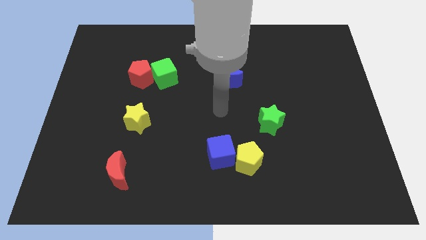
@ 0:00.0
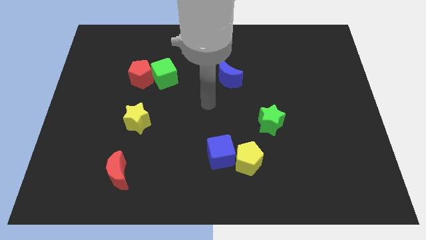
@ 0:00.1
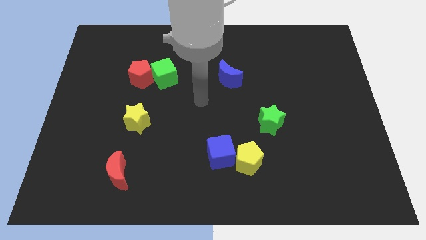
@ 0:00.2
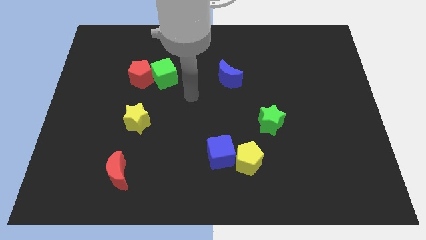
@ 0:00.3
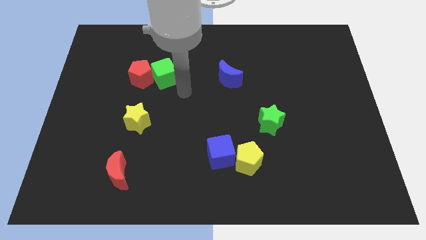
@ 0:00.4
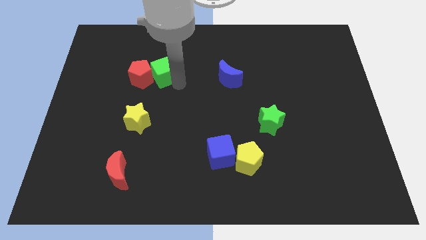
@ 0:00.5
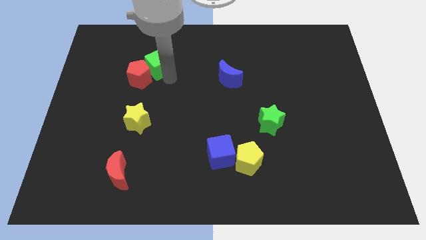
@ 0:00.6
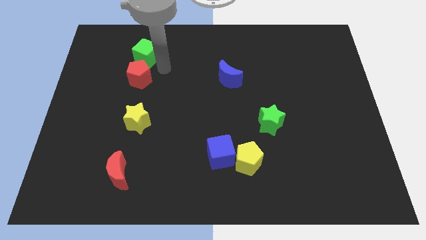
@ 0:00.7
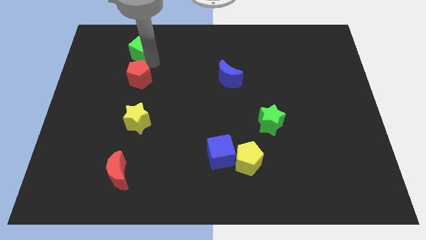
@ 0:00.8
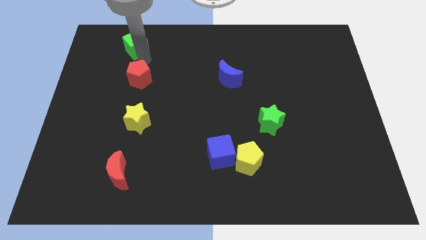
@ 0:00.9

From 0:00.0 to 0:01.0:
pull the red pentagon apart from the green cube

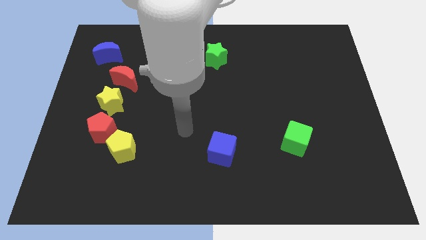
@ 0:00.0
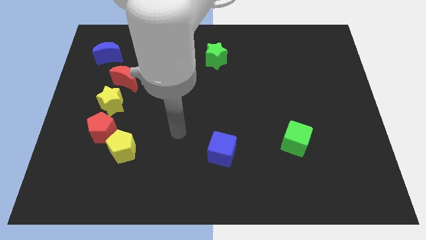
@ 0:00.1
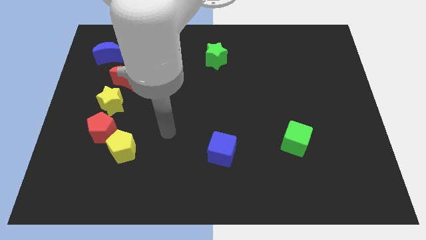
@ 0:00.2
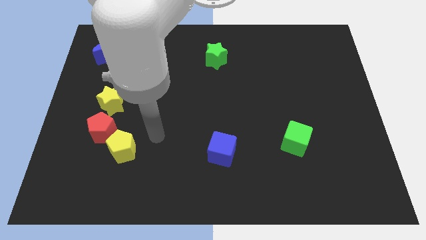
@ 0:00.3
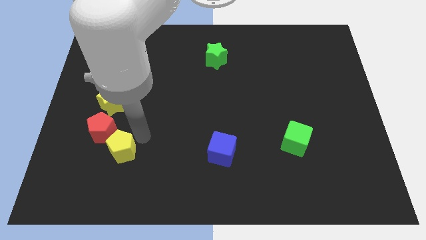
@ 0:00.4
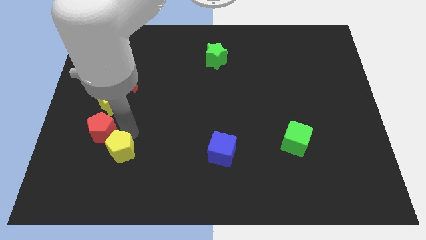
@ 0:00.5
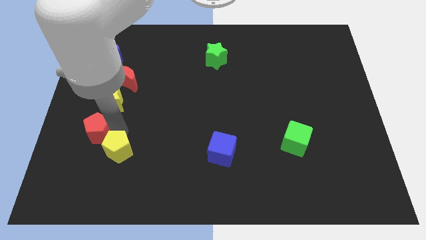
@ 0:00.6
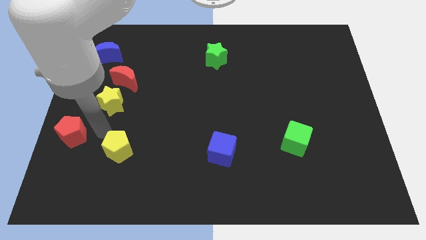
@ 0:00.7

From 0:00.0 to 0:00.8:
pull the yellow pentagon apart from the red pentagon

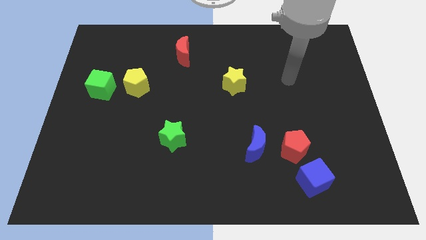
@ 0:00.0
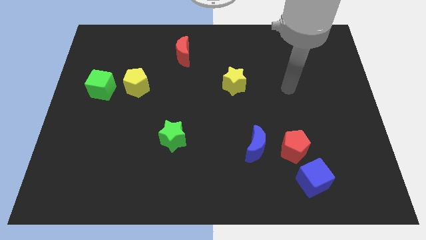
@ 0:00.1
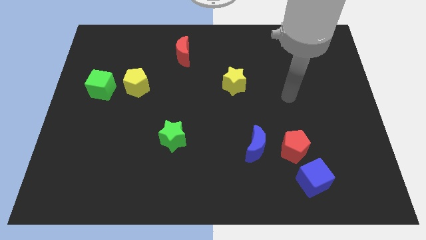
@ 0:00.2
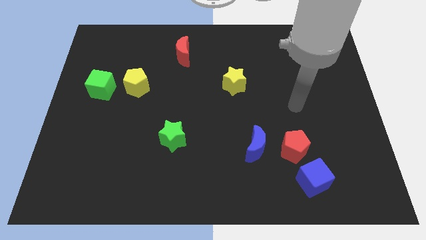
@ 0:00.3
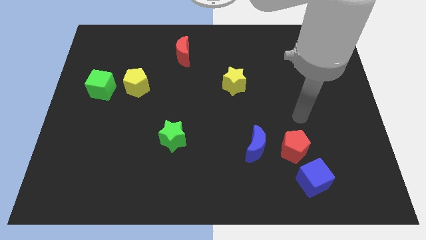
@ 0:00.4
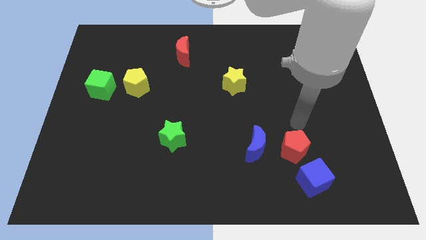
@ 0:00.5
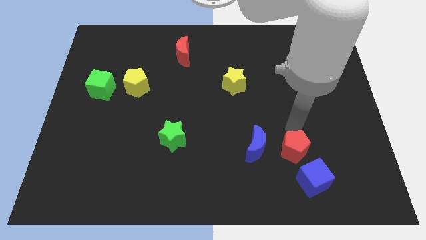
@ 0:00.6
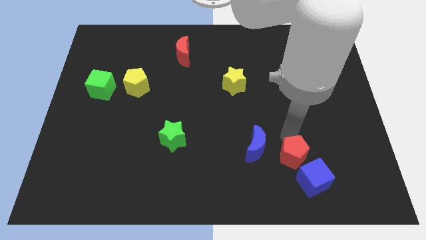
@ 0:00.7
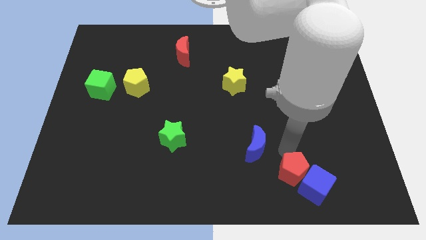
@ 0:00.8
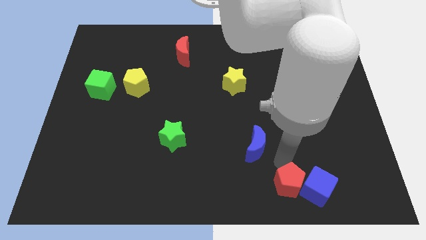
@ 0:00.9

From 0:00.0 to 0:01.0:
separate the blue moon from the red pentagon

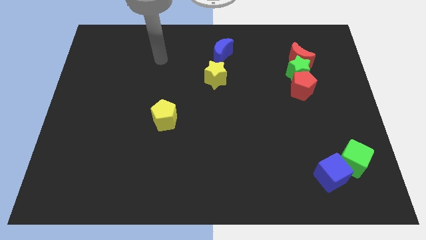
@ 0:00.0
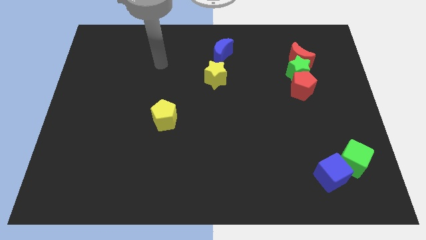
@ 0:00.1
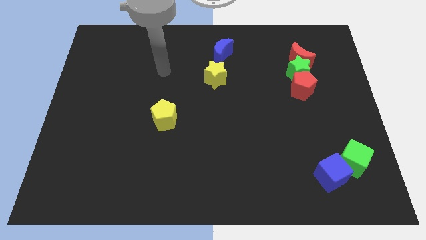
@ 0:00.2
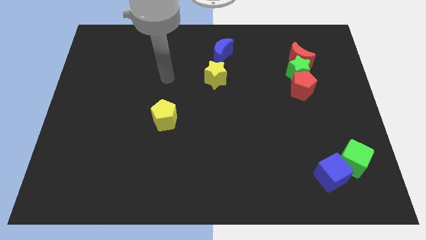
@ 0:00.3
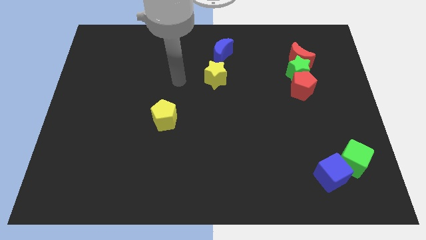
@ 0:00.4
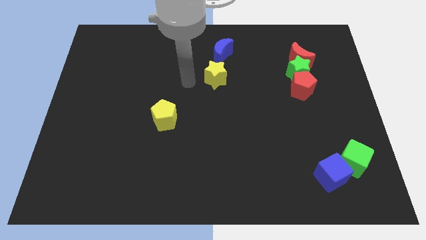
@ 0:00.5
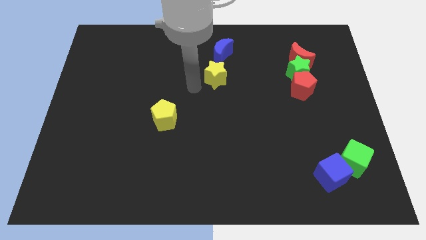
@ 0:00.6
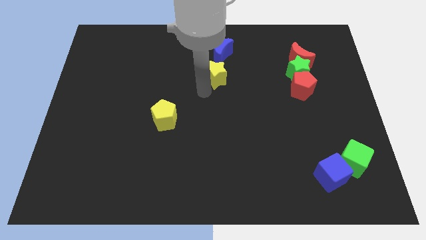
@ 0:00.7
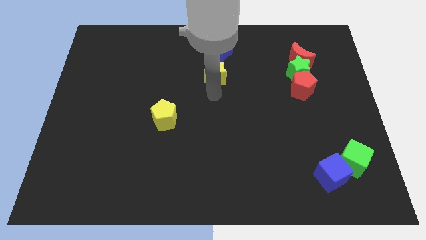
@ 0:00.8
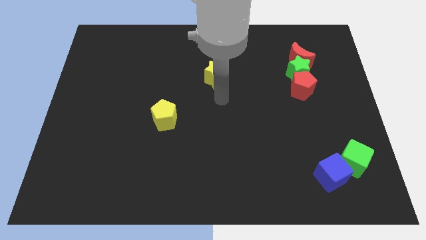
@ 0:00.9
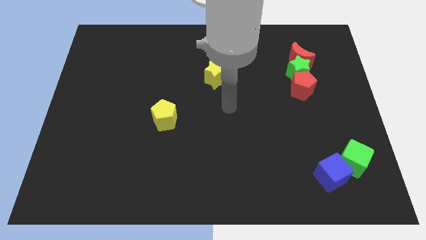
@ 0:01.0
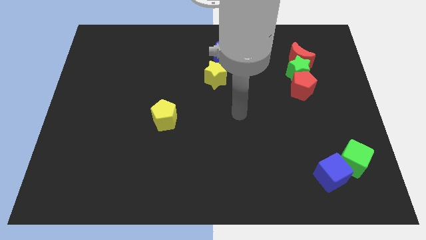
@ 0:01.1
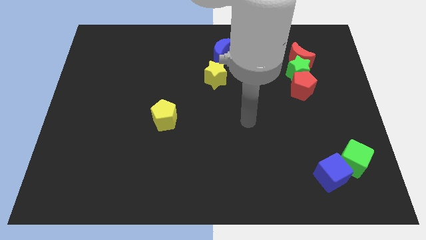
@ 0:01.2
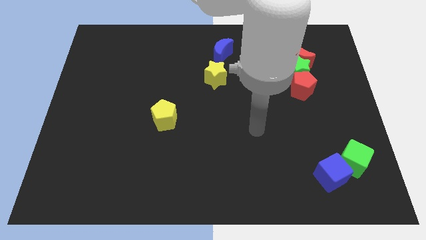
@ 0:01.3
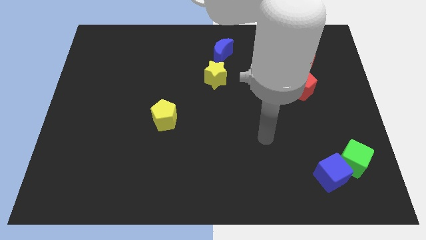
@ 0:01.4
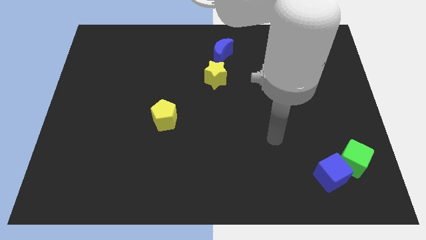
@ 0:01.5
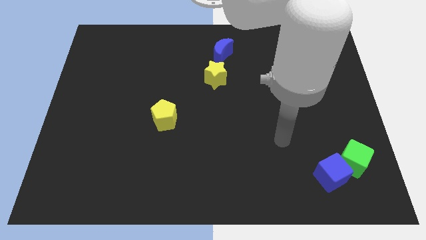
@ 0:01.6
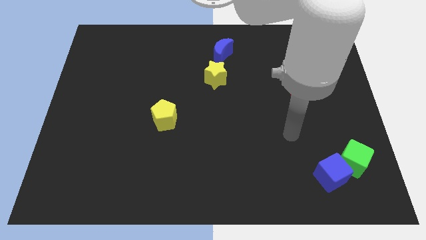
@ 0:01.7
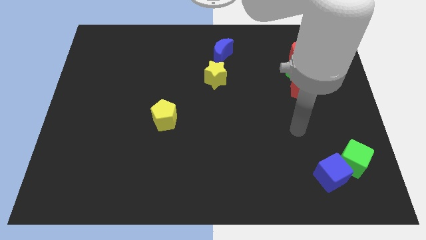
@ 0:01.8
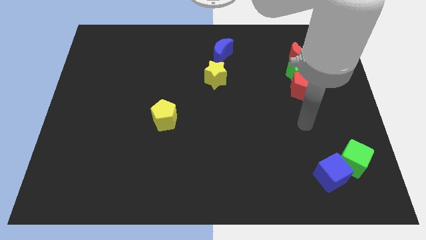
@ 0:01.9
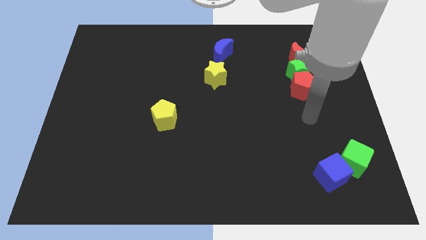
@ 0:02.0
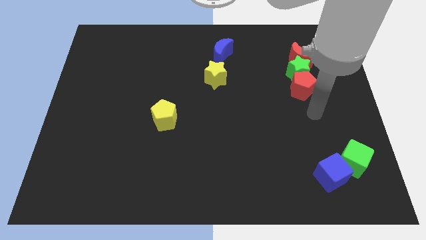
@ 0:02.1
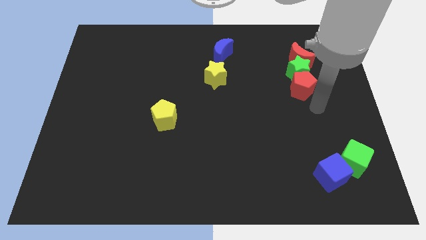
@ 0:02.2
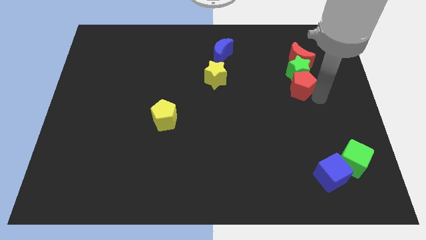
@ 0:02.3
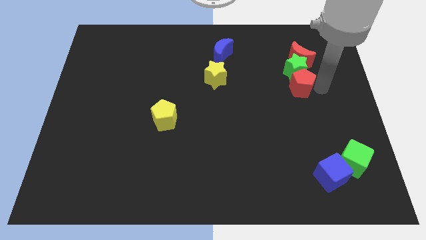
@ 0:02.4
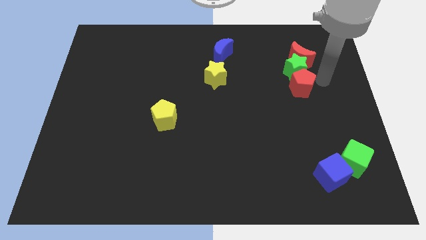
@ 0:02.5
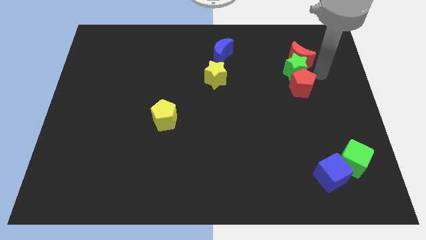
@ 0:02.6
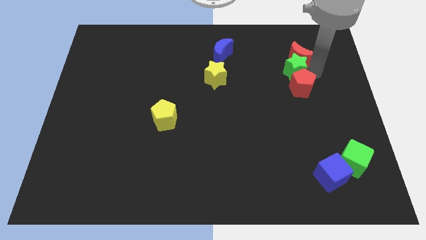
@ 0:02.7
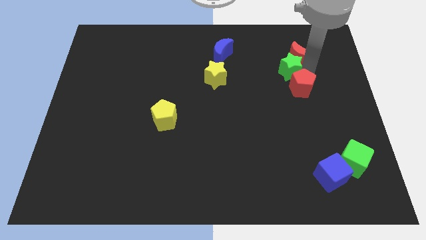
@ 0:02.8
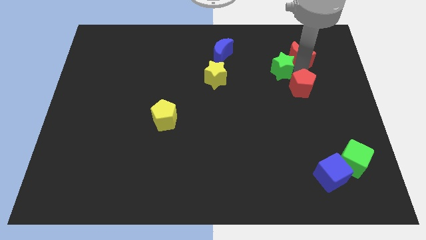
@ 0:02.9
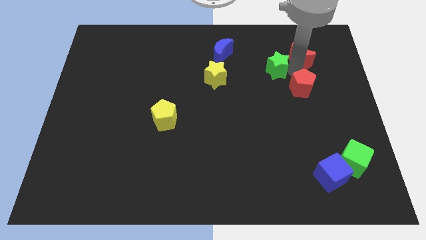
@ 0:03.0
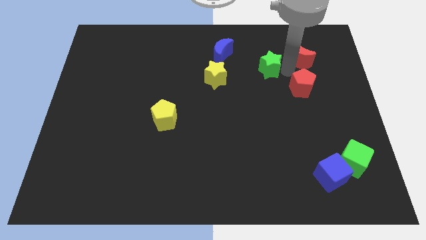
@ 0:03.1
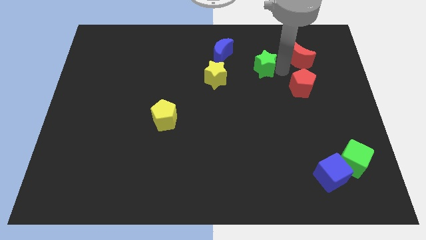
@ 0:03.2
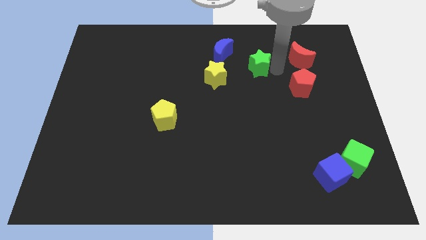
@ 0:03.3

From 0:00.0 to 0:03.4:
pull the green star apart from the red moon and red pentagon

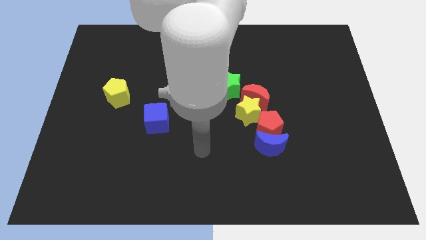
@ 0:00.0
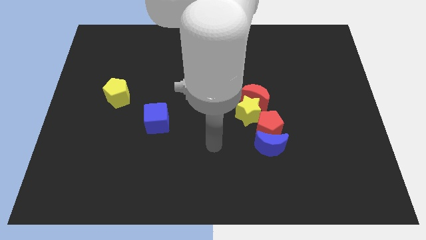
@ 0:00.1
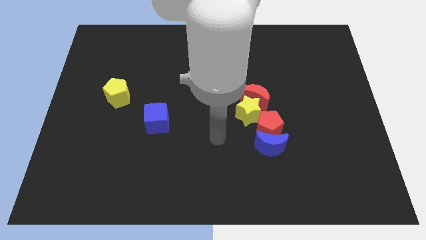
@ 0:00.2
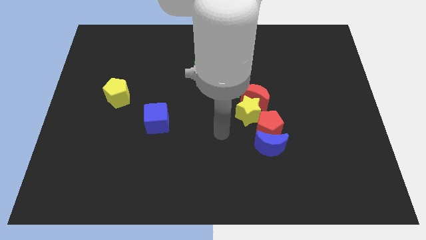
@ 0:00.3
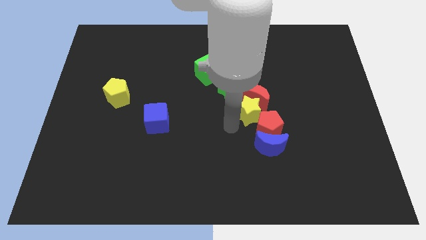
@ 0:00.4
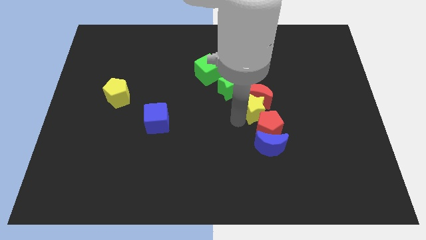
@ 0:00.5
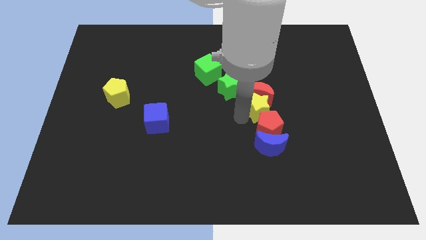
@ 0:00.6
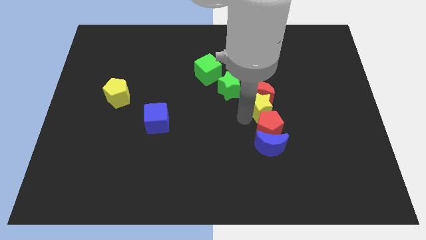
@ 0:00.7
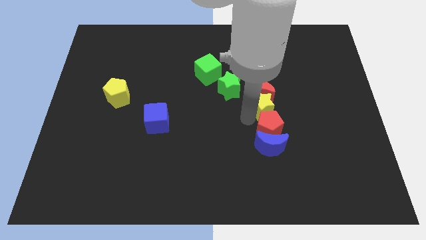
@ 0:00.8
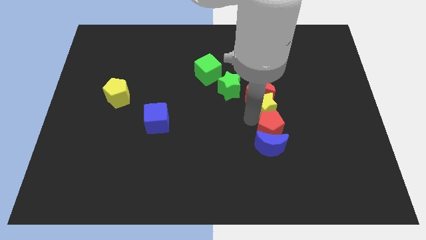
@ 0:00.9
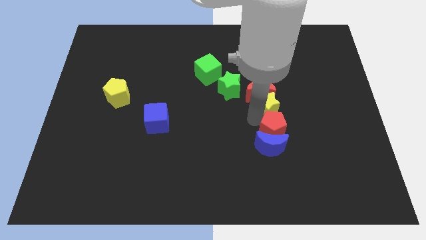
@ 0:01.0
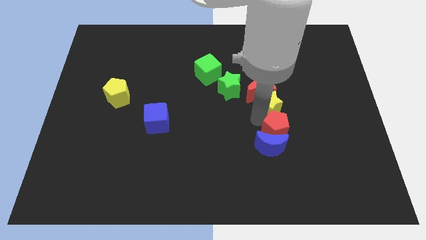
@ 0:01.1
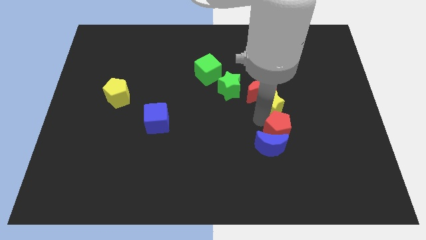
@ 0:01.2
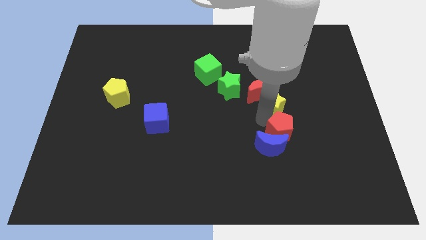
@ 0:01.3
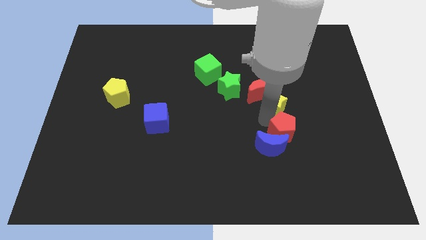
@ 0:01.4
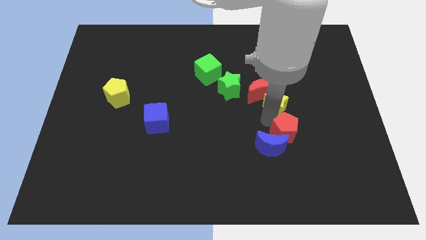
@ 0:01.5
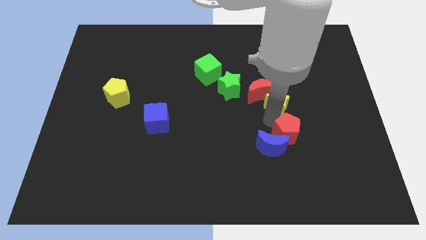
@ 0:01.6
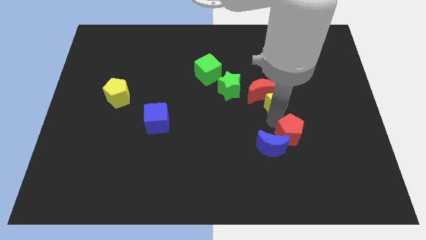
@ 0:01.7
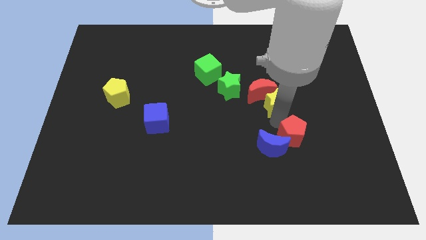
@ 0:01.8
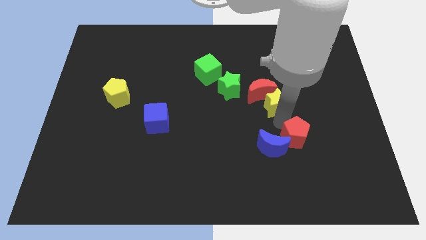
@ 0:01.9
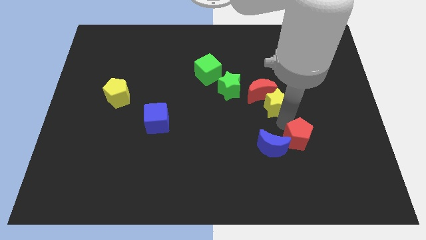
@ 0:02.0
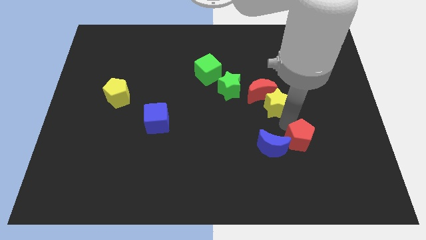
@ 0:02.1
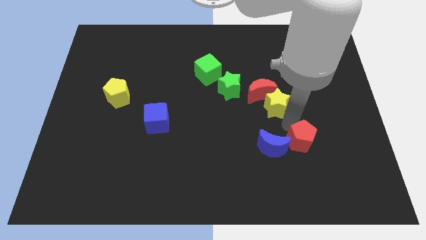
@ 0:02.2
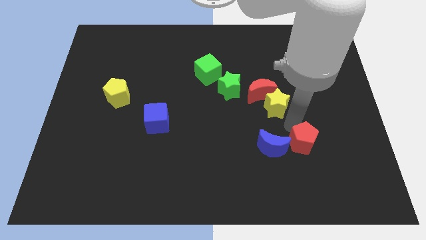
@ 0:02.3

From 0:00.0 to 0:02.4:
pull the red pentagon apart from the group of blocks

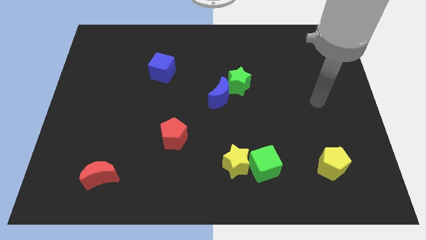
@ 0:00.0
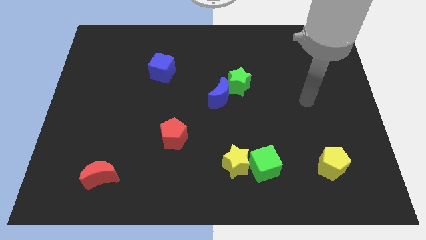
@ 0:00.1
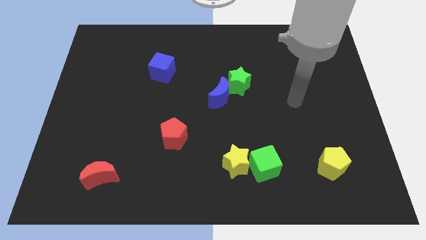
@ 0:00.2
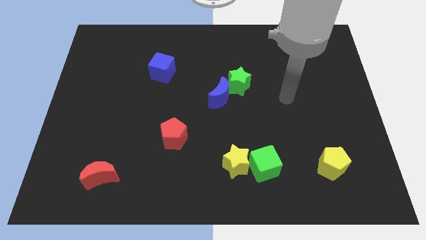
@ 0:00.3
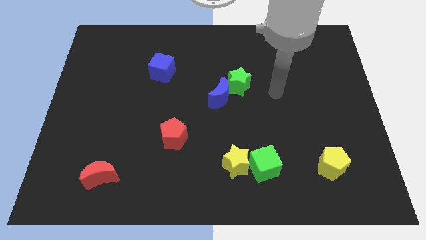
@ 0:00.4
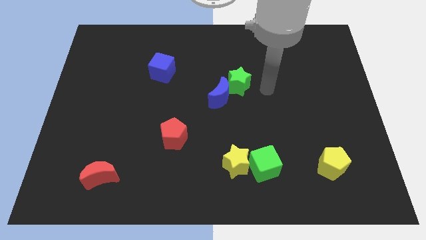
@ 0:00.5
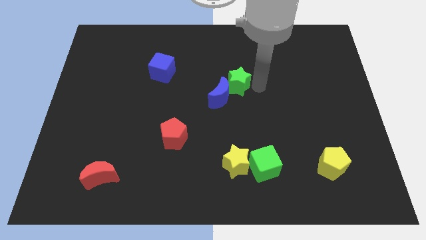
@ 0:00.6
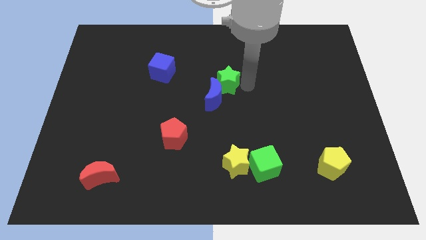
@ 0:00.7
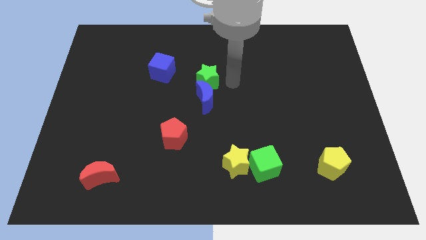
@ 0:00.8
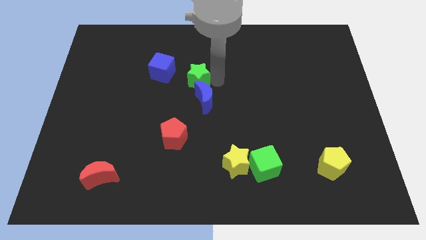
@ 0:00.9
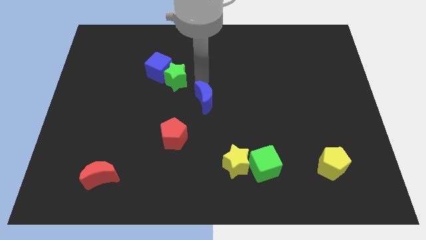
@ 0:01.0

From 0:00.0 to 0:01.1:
separate the blue moon from the green star
